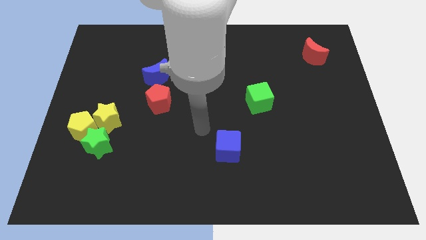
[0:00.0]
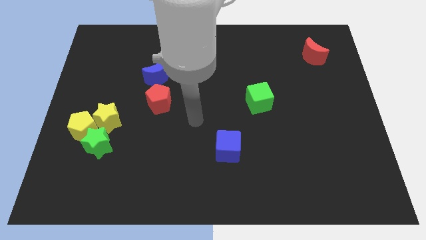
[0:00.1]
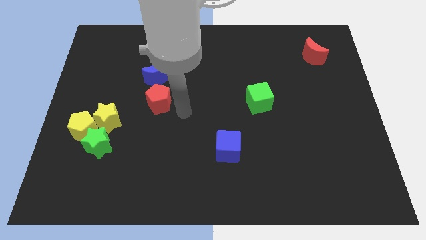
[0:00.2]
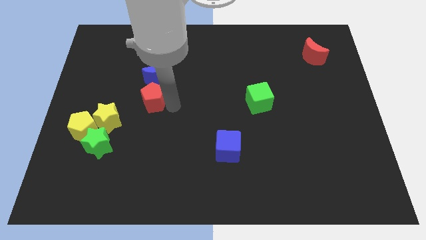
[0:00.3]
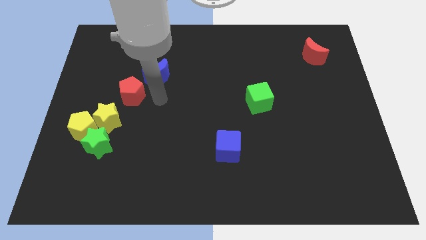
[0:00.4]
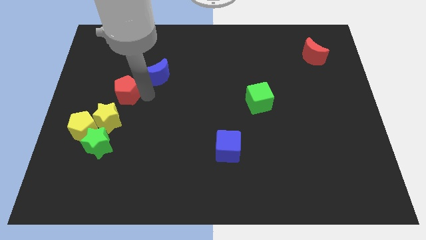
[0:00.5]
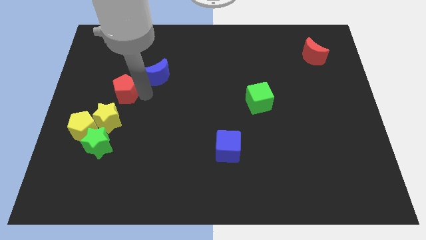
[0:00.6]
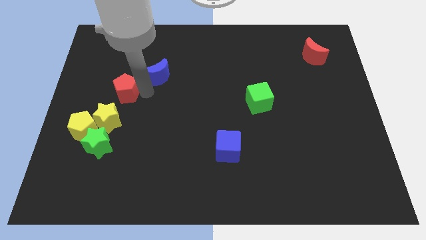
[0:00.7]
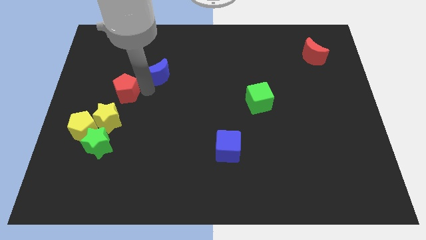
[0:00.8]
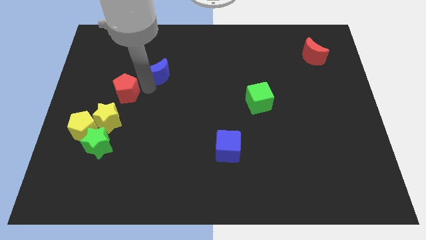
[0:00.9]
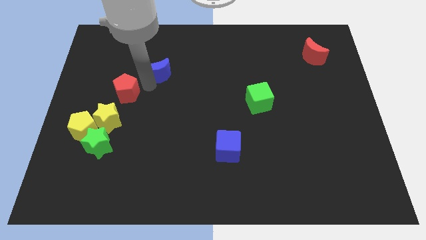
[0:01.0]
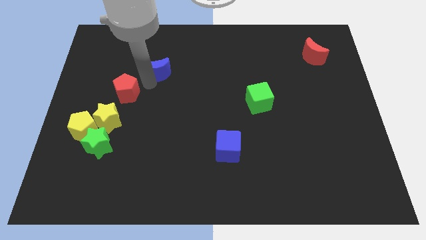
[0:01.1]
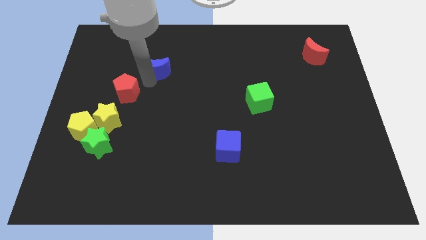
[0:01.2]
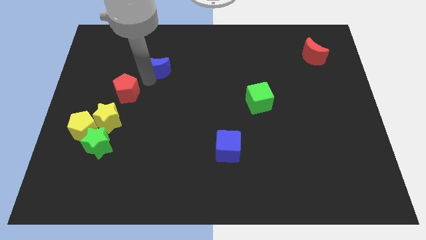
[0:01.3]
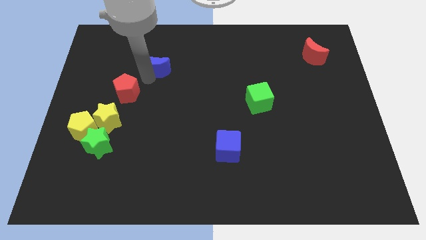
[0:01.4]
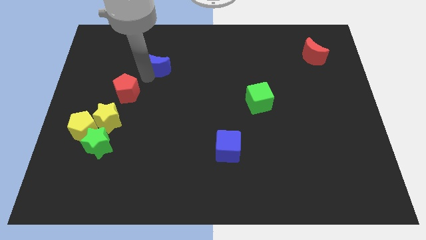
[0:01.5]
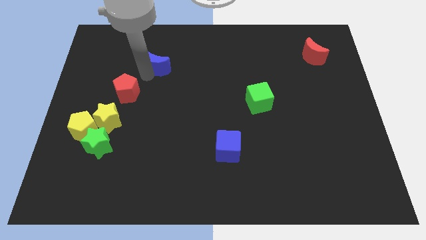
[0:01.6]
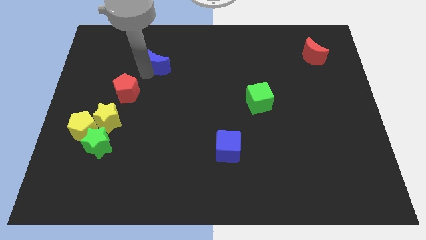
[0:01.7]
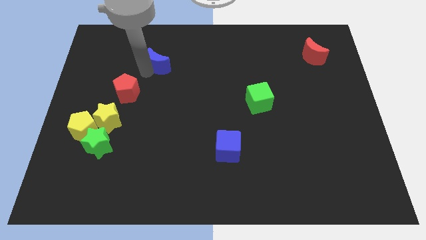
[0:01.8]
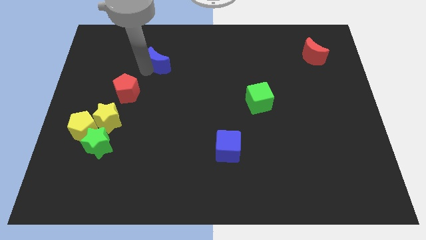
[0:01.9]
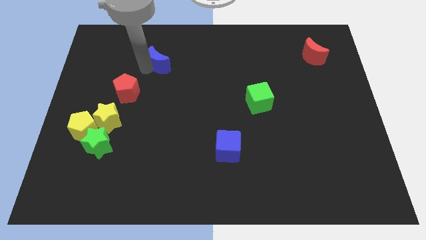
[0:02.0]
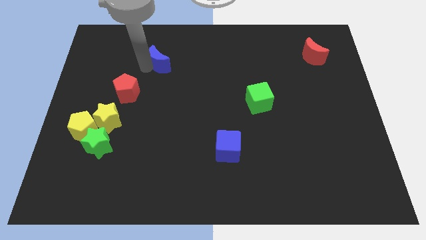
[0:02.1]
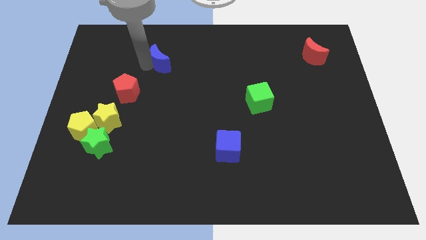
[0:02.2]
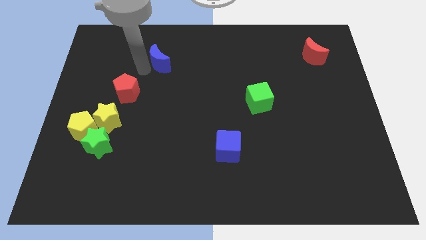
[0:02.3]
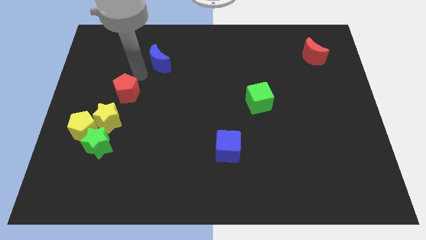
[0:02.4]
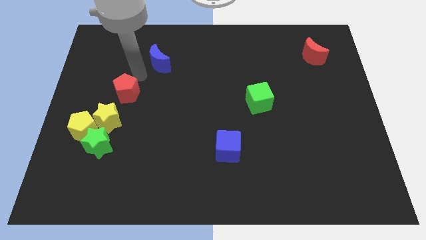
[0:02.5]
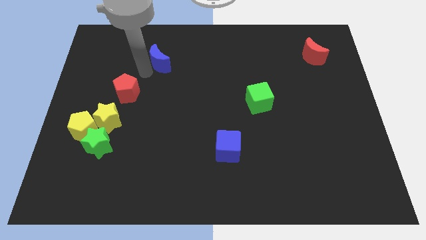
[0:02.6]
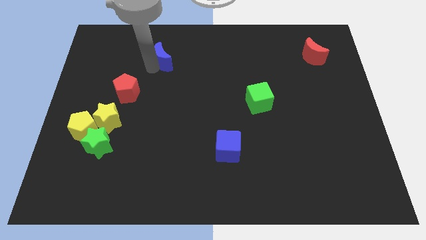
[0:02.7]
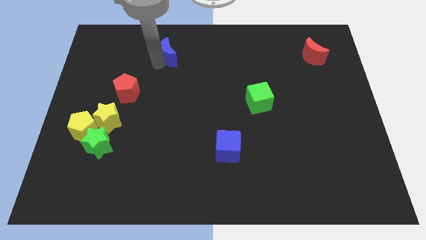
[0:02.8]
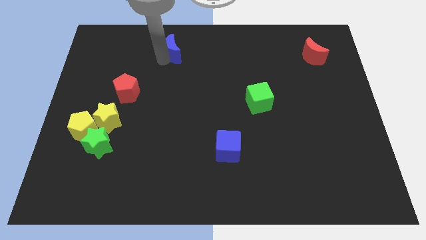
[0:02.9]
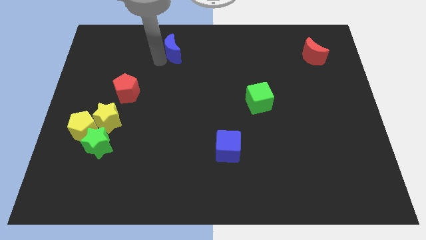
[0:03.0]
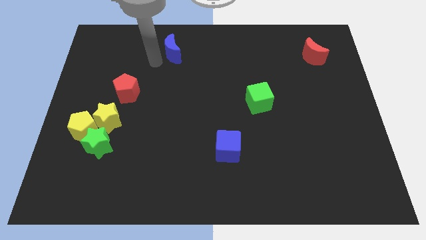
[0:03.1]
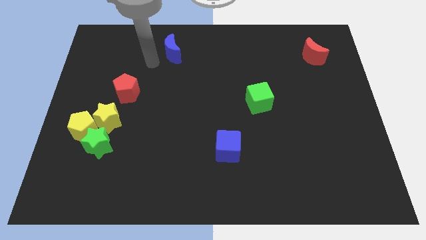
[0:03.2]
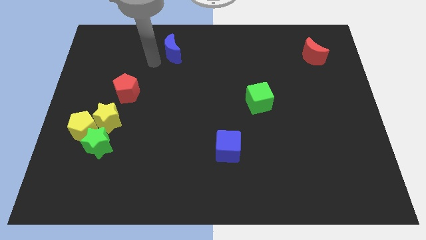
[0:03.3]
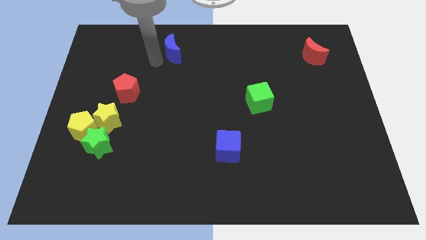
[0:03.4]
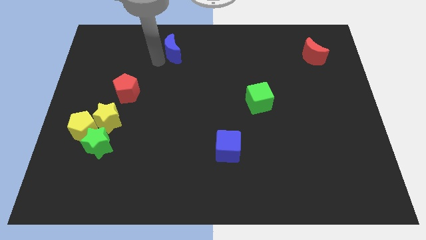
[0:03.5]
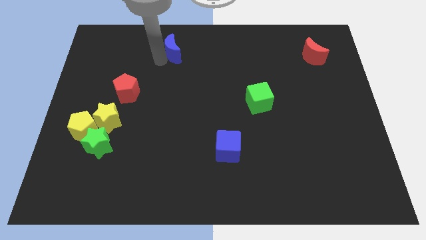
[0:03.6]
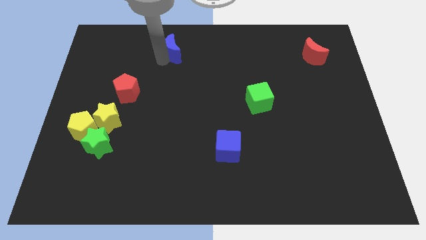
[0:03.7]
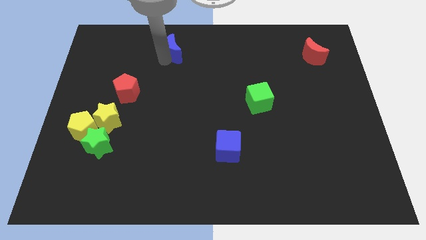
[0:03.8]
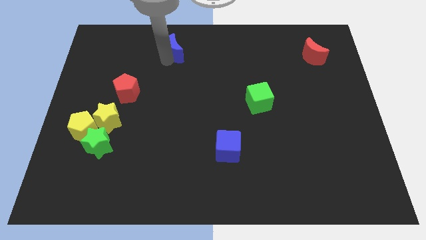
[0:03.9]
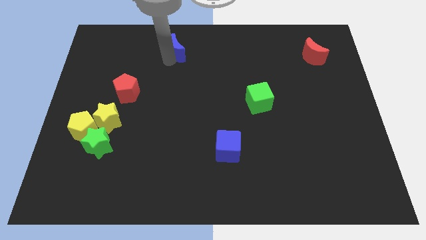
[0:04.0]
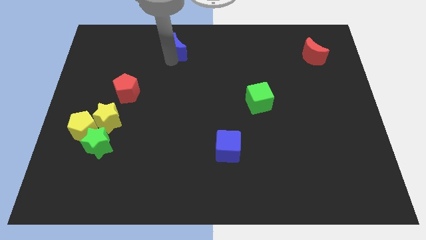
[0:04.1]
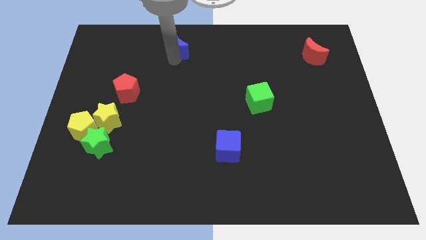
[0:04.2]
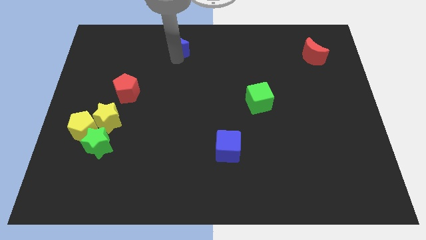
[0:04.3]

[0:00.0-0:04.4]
move the blue moon to the towards your base

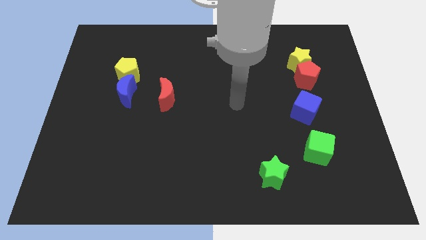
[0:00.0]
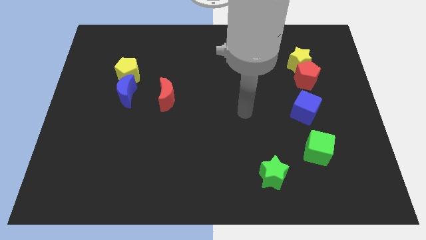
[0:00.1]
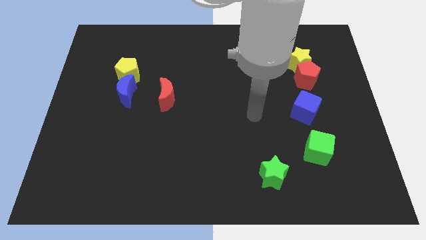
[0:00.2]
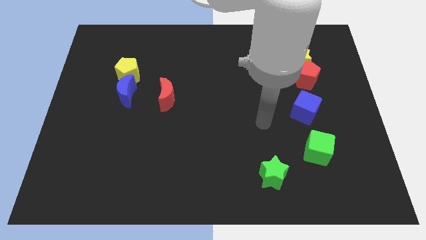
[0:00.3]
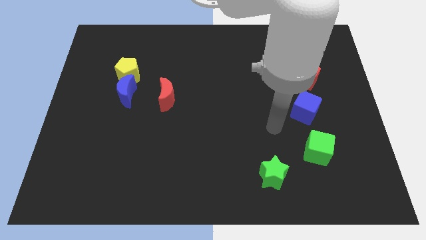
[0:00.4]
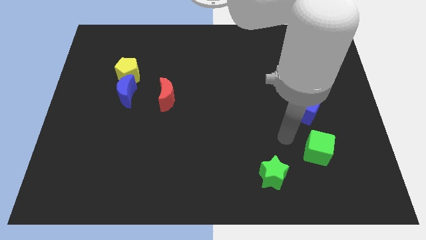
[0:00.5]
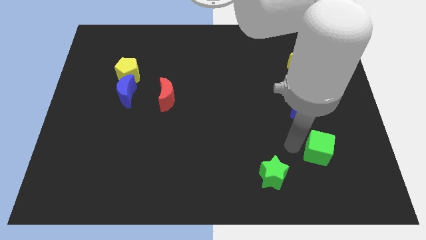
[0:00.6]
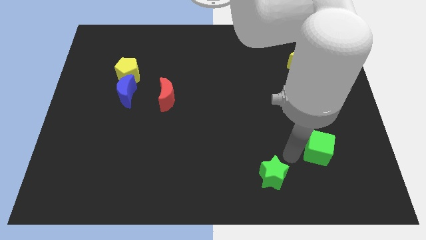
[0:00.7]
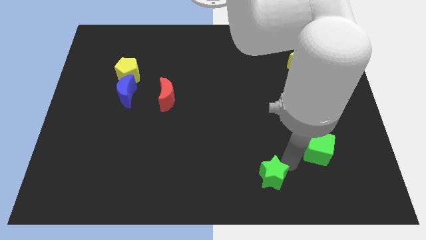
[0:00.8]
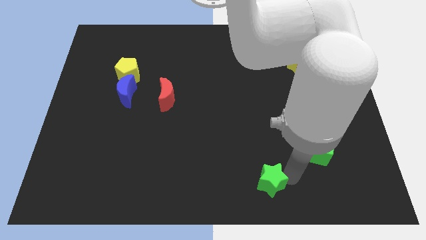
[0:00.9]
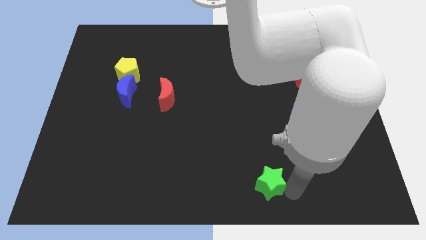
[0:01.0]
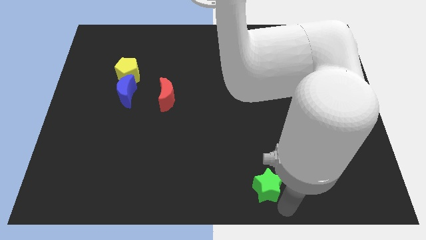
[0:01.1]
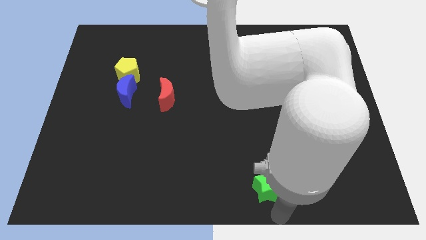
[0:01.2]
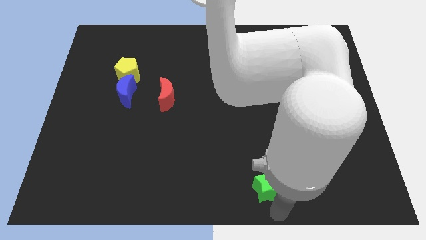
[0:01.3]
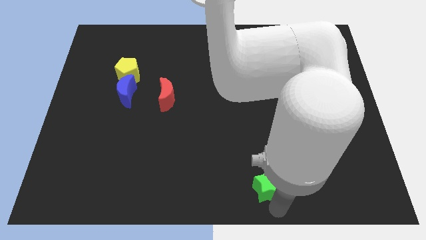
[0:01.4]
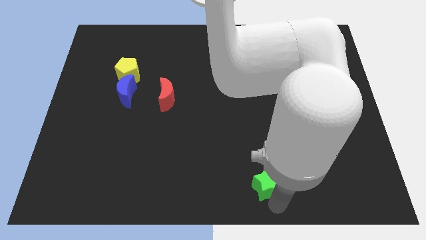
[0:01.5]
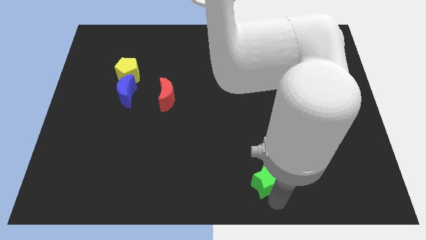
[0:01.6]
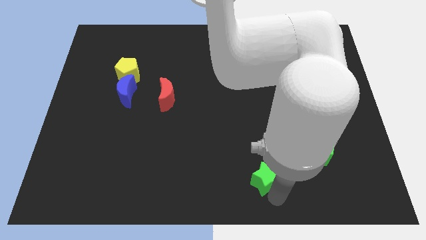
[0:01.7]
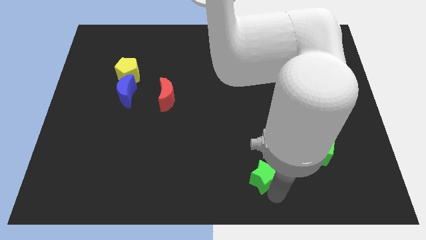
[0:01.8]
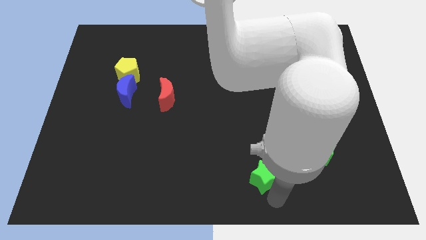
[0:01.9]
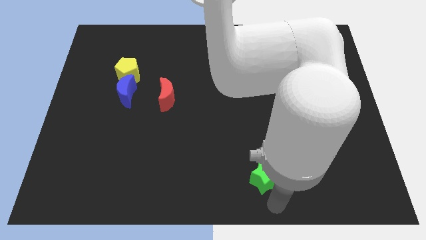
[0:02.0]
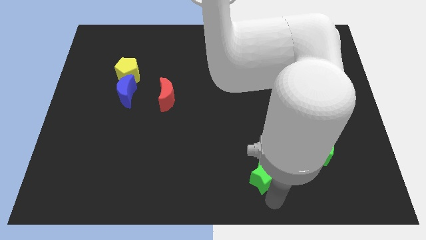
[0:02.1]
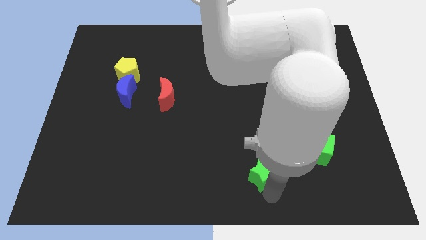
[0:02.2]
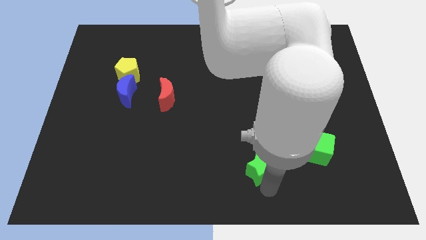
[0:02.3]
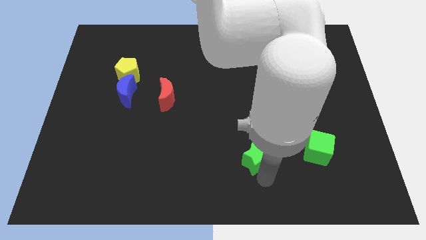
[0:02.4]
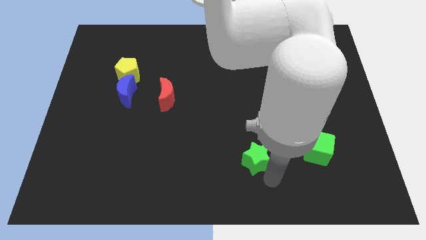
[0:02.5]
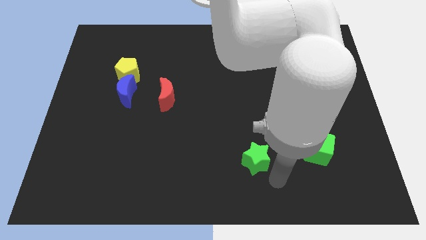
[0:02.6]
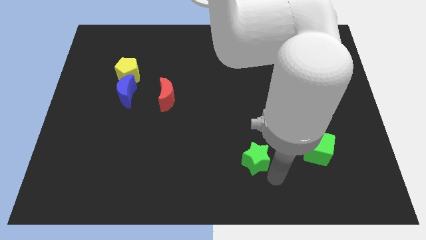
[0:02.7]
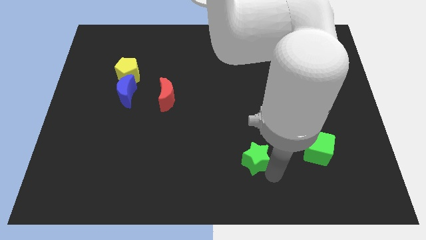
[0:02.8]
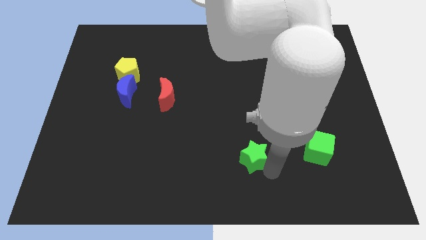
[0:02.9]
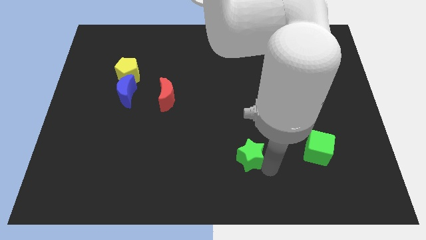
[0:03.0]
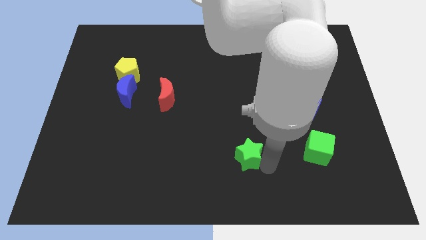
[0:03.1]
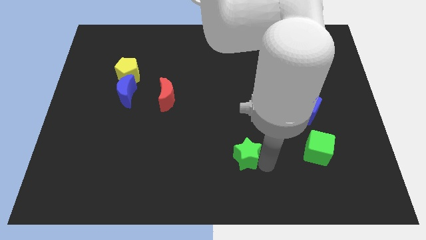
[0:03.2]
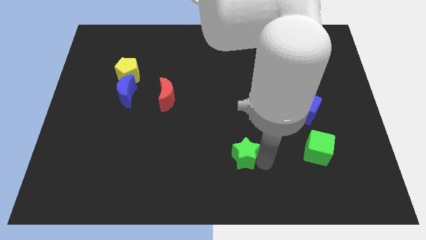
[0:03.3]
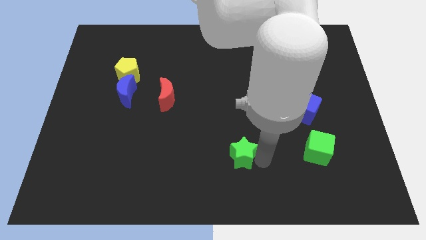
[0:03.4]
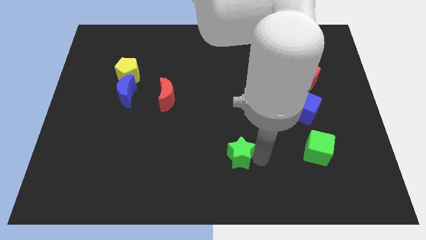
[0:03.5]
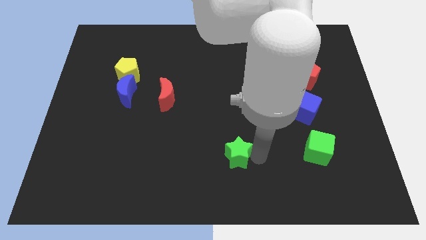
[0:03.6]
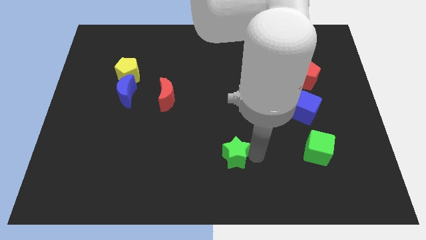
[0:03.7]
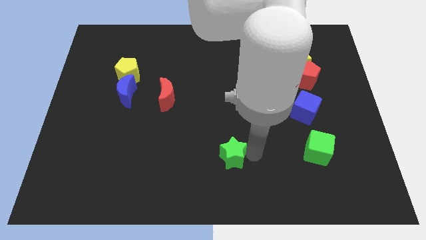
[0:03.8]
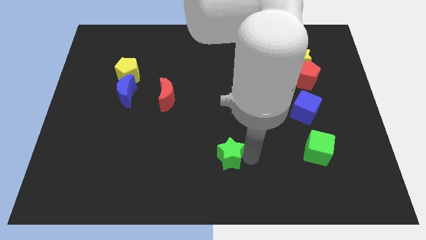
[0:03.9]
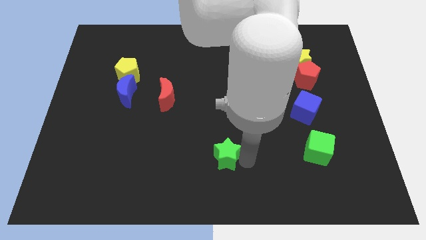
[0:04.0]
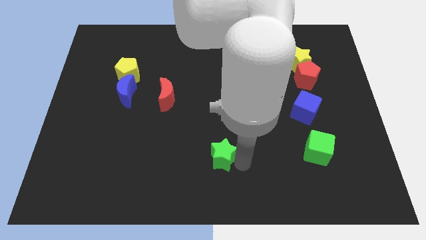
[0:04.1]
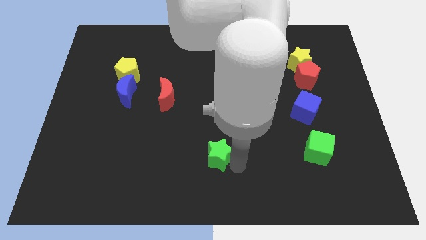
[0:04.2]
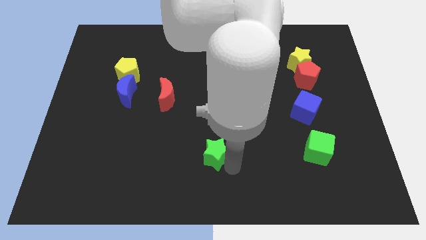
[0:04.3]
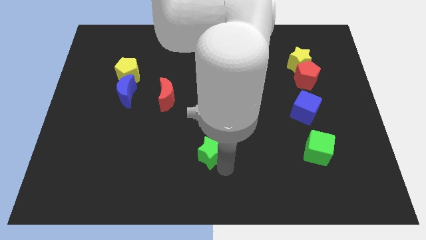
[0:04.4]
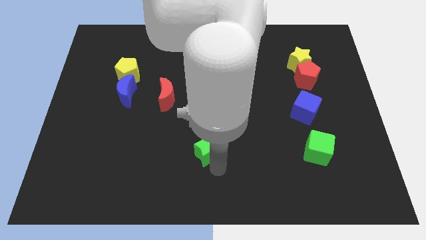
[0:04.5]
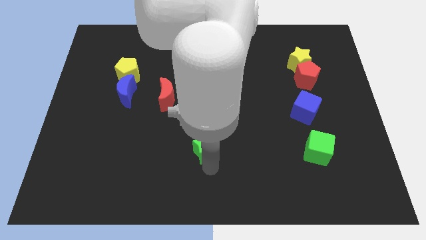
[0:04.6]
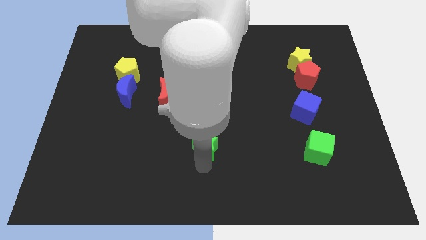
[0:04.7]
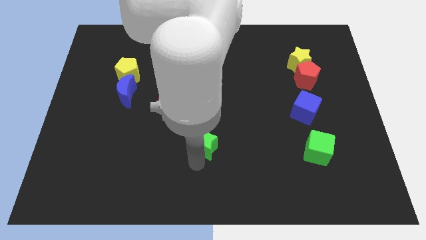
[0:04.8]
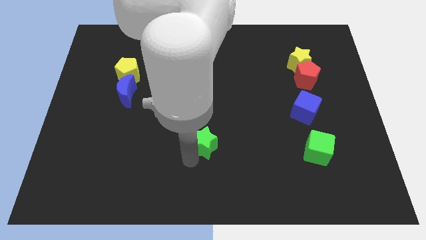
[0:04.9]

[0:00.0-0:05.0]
put the green star to the middle of the board
